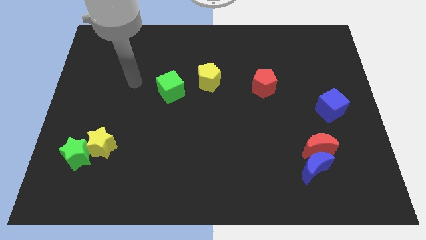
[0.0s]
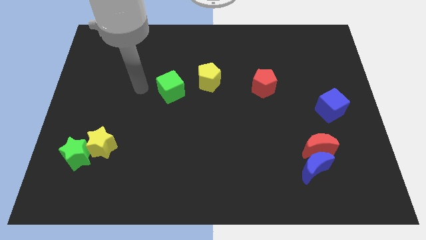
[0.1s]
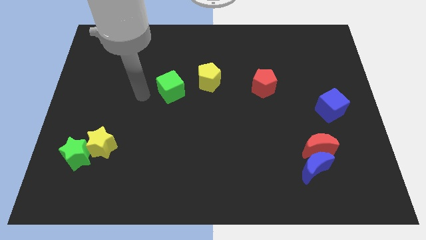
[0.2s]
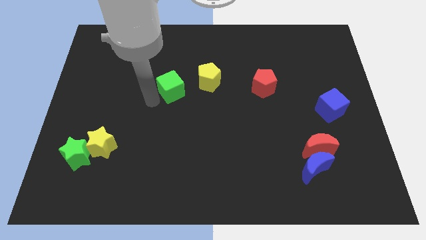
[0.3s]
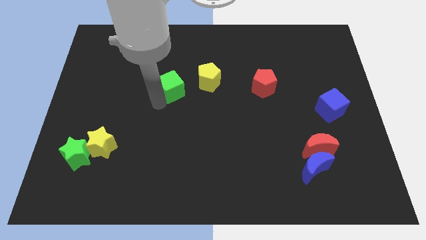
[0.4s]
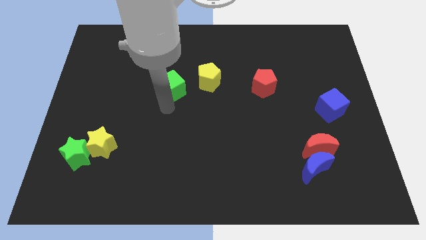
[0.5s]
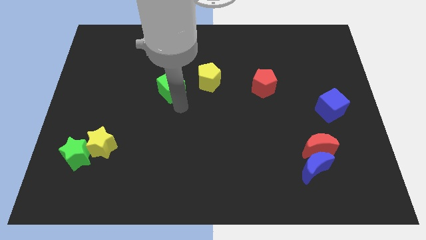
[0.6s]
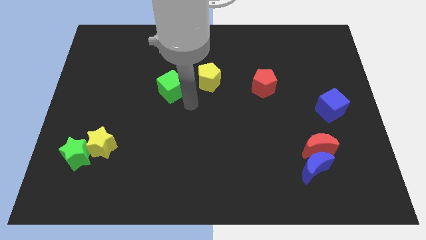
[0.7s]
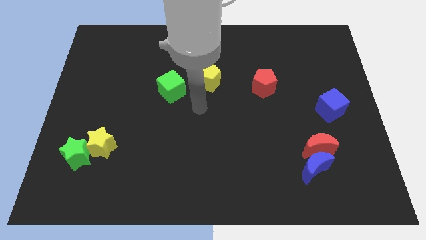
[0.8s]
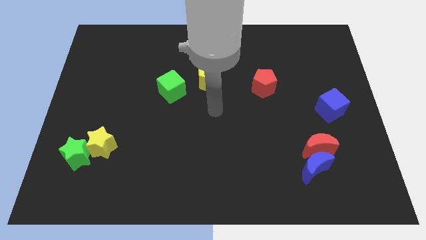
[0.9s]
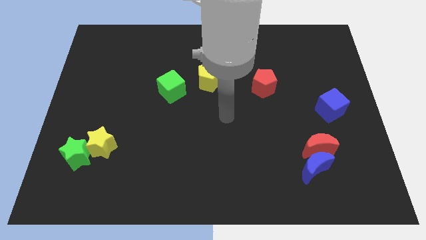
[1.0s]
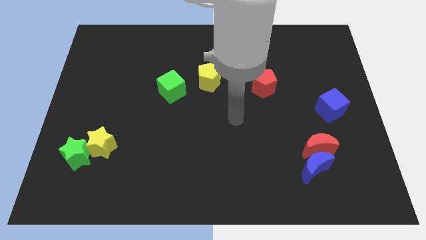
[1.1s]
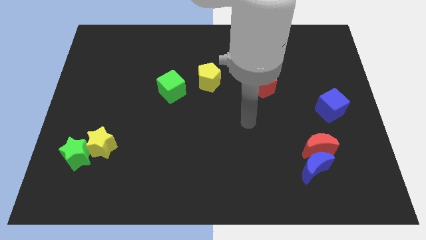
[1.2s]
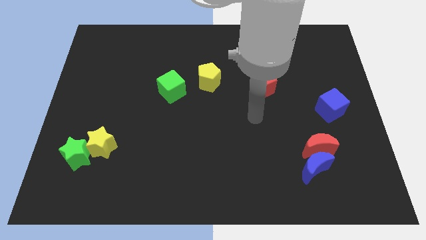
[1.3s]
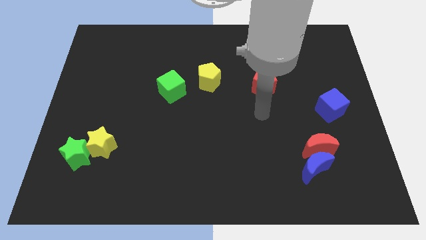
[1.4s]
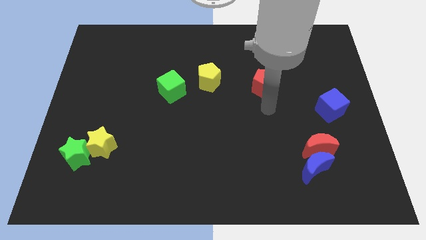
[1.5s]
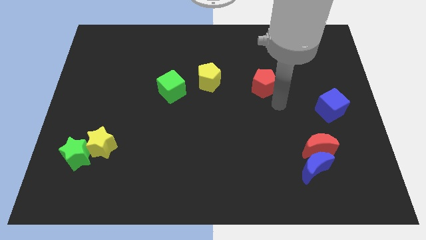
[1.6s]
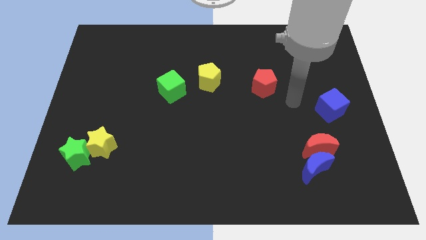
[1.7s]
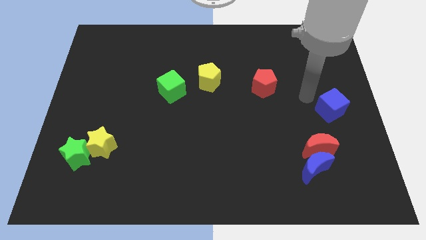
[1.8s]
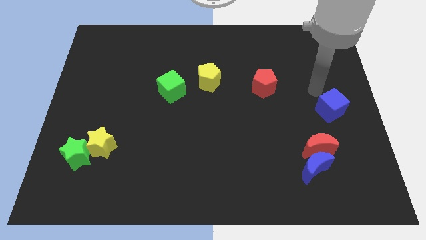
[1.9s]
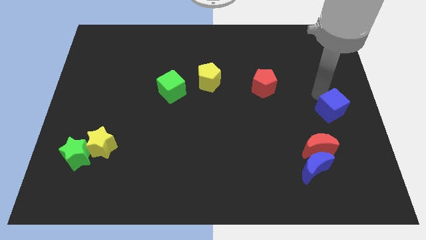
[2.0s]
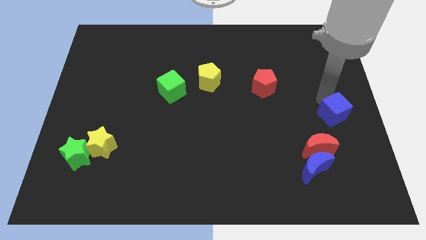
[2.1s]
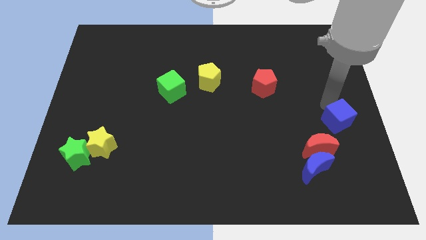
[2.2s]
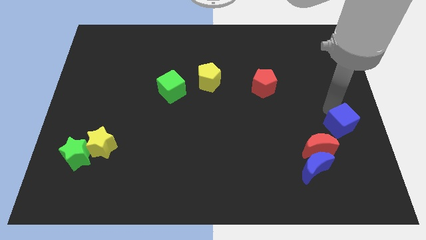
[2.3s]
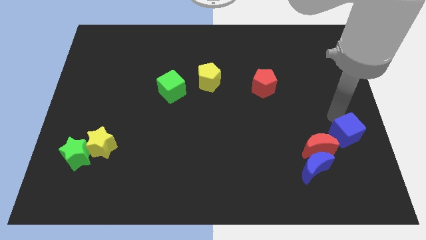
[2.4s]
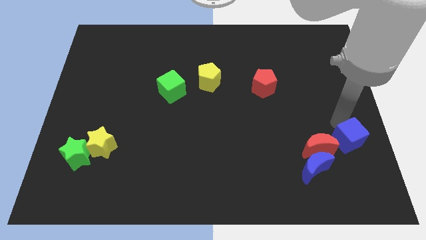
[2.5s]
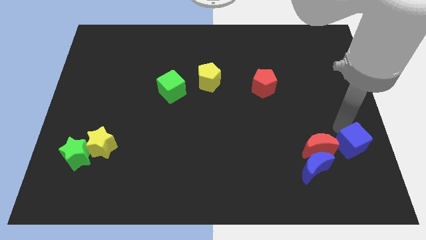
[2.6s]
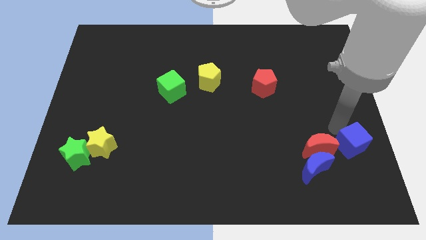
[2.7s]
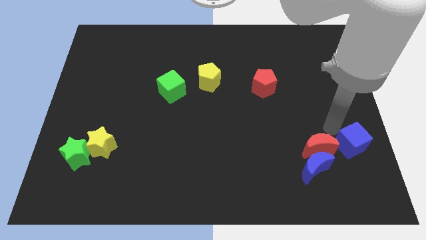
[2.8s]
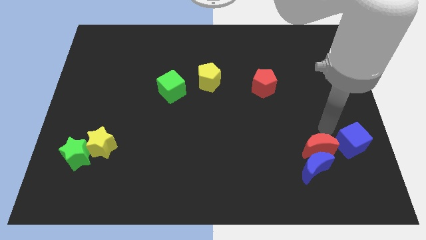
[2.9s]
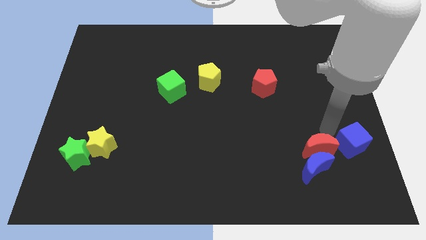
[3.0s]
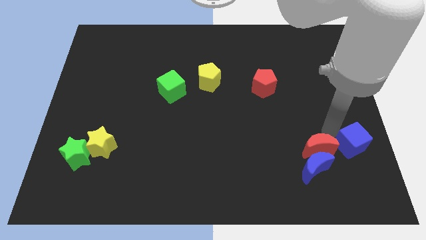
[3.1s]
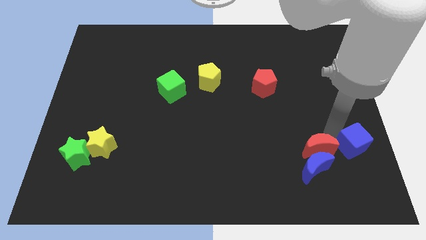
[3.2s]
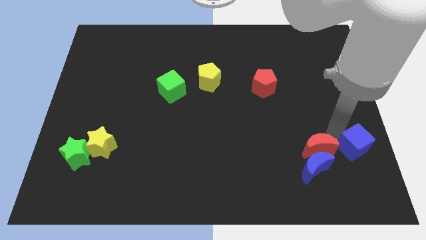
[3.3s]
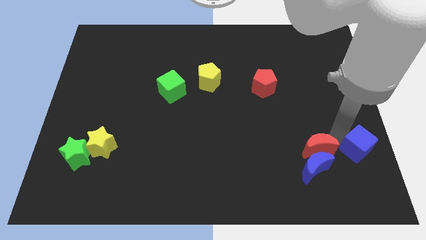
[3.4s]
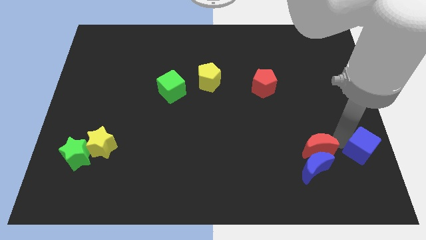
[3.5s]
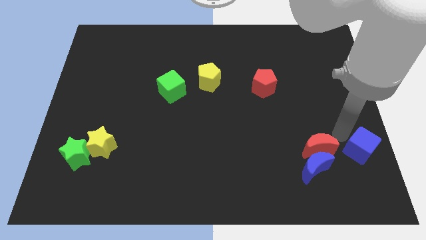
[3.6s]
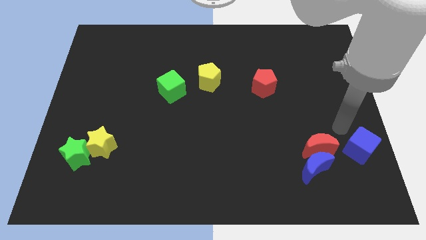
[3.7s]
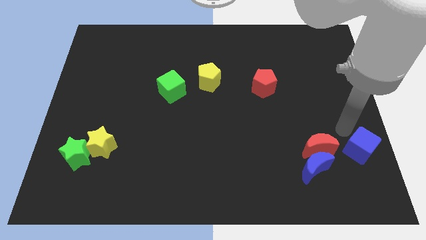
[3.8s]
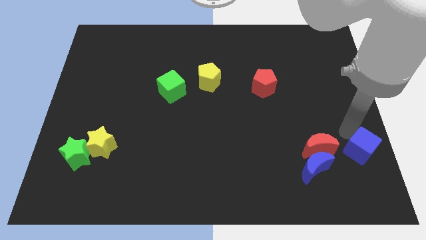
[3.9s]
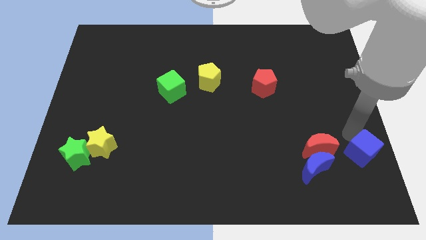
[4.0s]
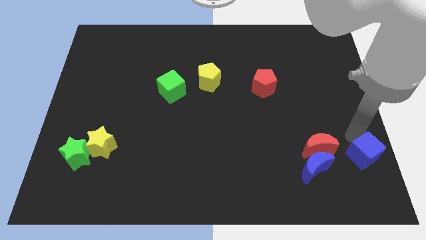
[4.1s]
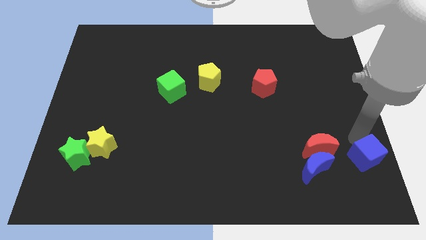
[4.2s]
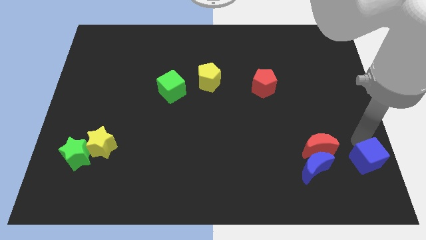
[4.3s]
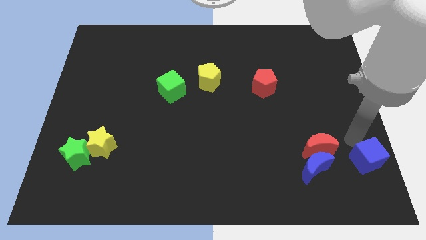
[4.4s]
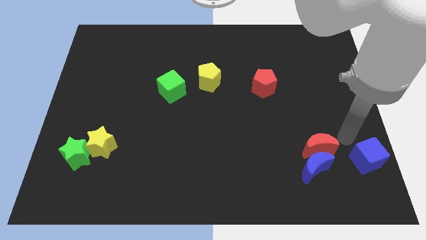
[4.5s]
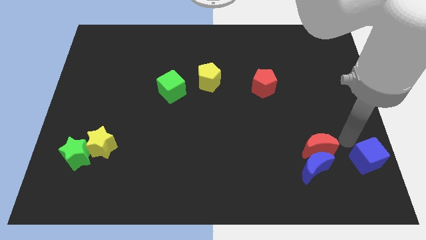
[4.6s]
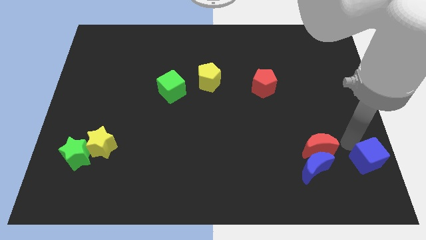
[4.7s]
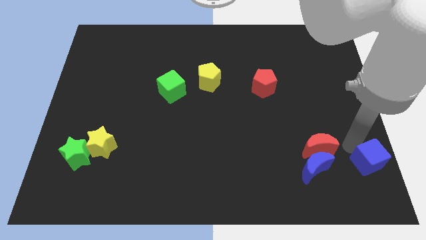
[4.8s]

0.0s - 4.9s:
slide the blue cube to the bottom right

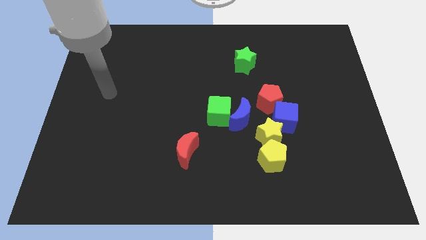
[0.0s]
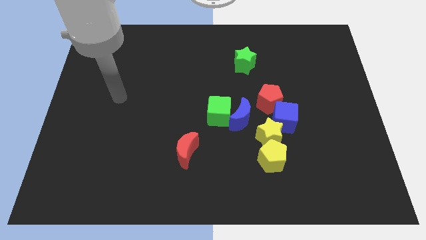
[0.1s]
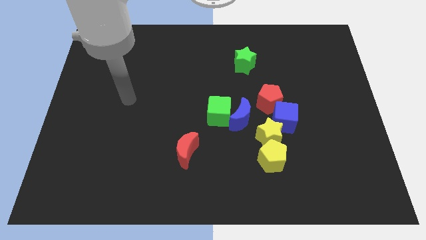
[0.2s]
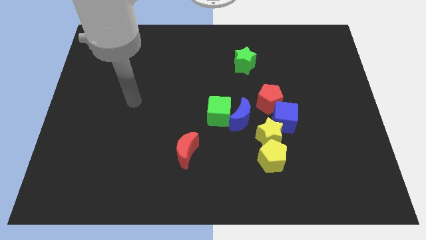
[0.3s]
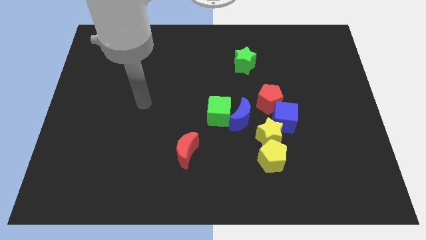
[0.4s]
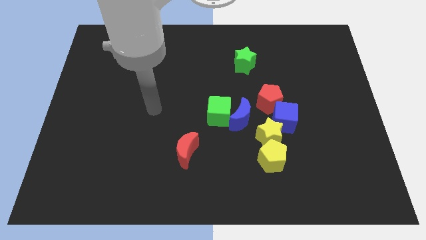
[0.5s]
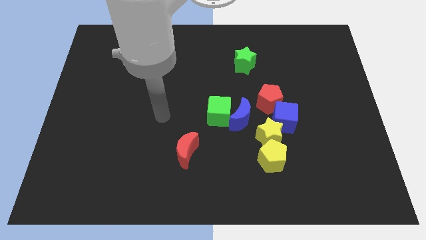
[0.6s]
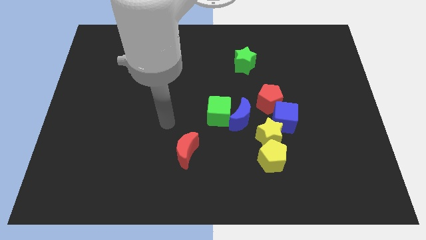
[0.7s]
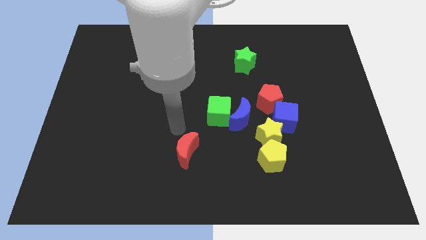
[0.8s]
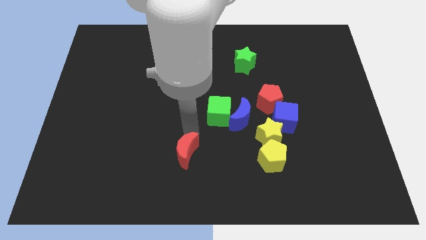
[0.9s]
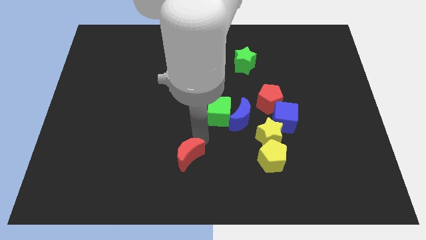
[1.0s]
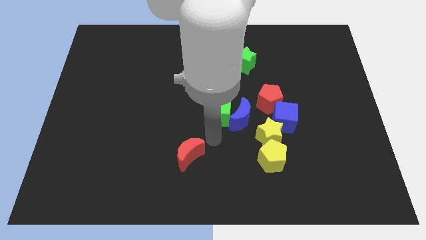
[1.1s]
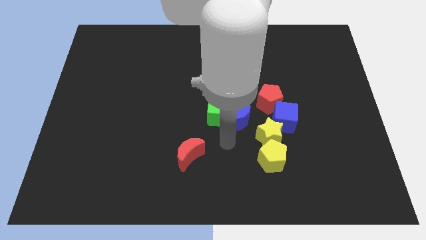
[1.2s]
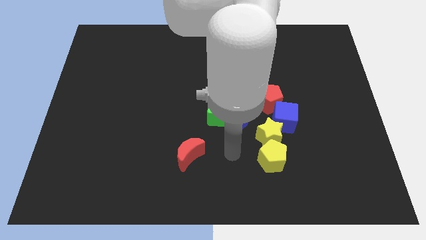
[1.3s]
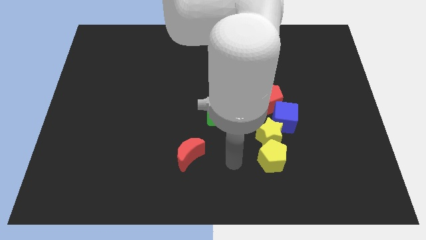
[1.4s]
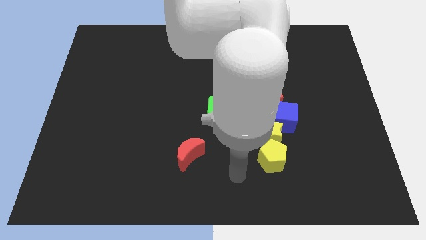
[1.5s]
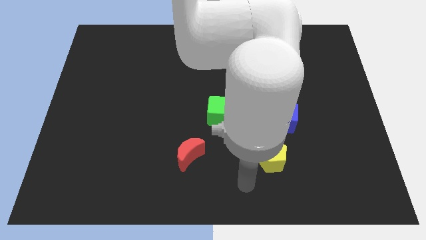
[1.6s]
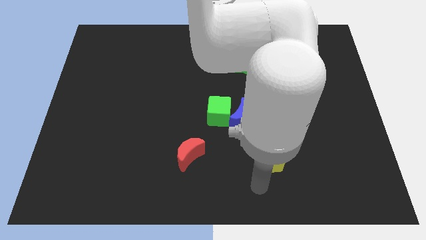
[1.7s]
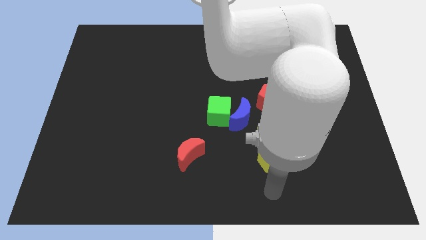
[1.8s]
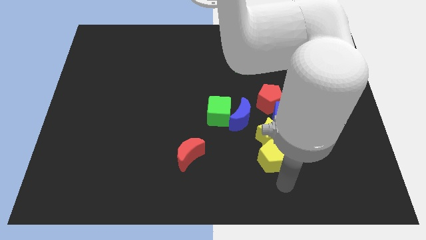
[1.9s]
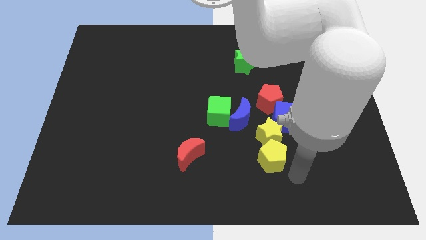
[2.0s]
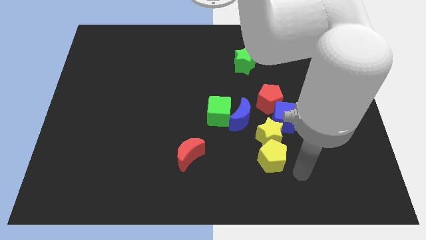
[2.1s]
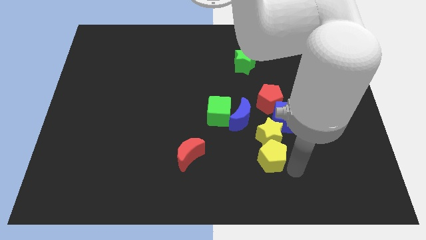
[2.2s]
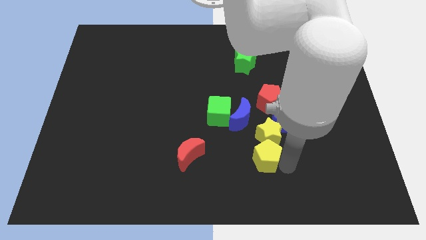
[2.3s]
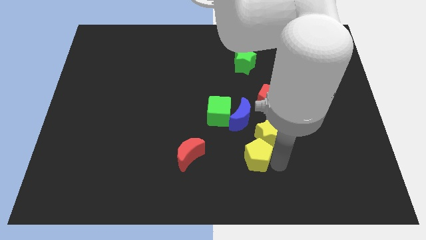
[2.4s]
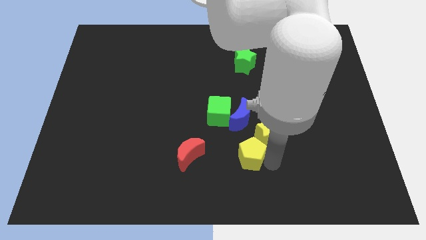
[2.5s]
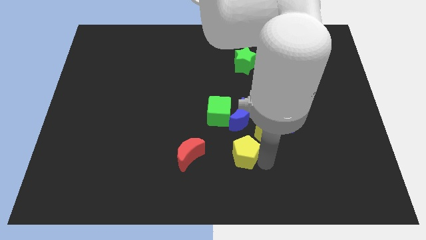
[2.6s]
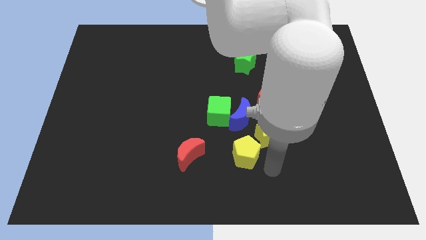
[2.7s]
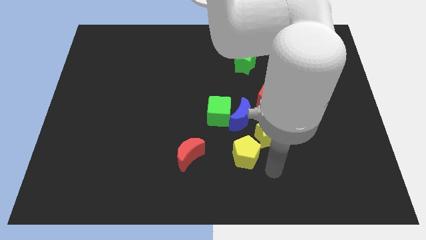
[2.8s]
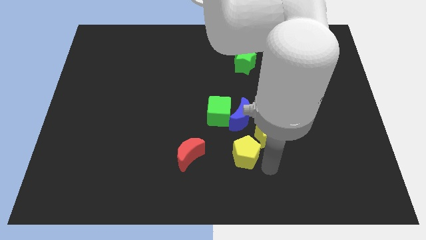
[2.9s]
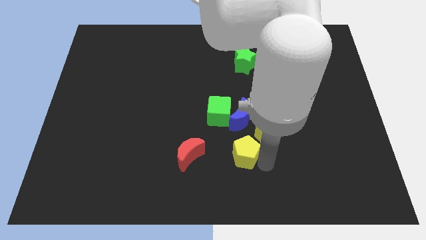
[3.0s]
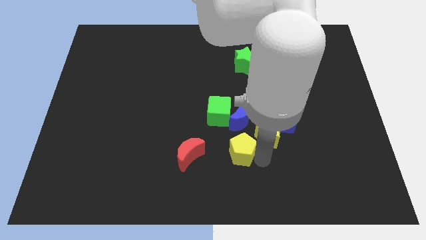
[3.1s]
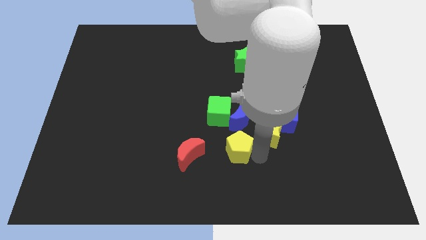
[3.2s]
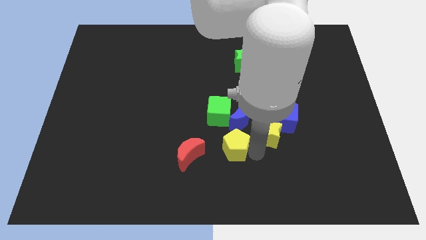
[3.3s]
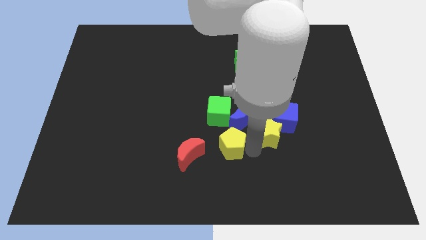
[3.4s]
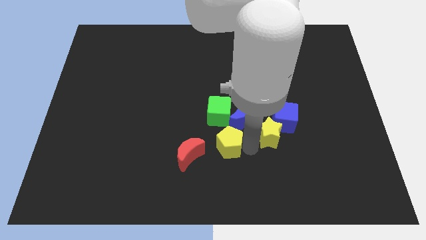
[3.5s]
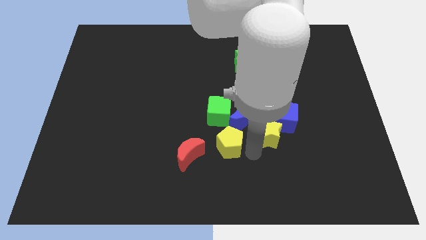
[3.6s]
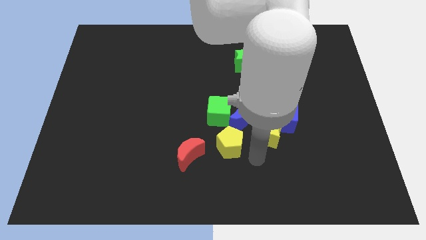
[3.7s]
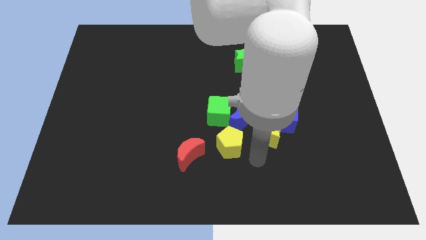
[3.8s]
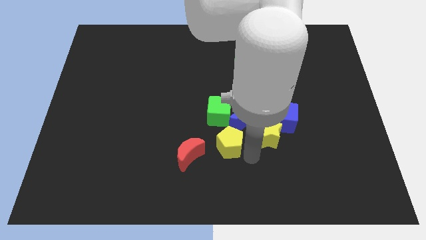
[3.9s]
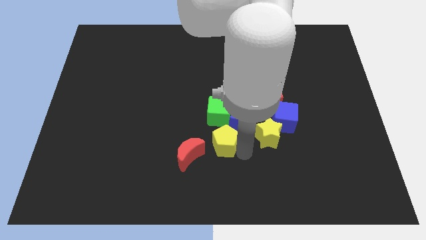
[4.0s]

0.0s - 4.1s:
push the yellow pentagon to the middle
